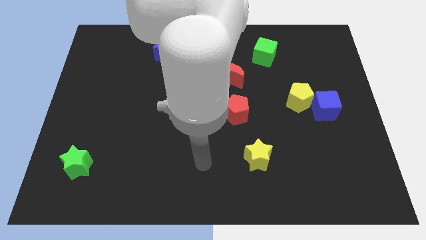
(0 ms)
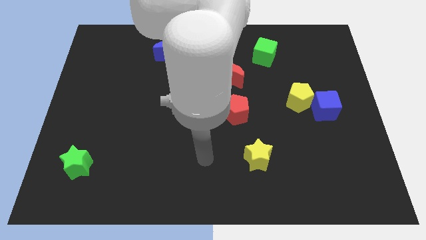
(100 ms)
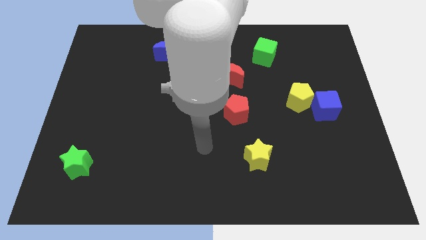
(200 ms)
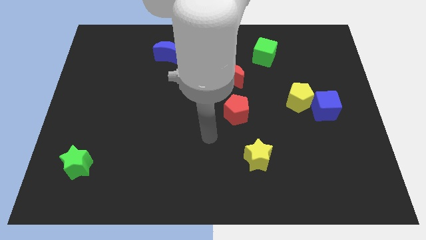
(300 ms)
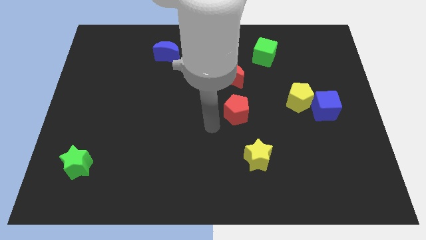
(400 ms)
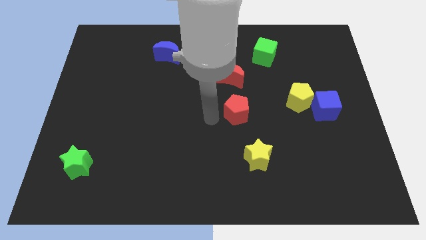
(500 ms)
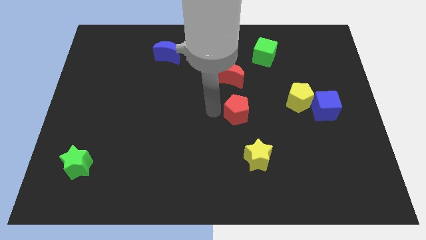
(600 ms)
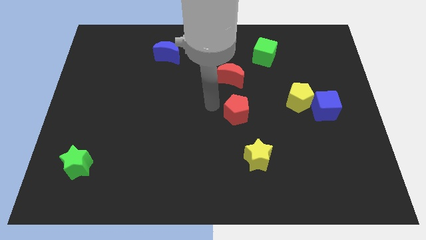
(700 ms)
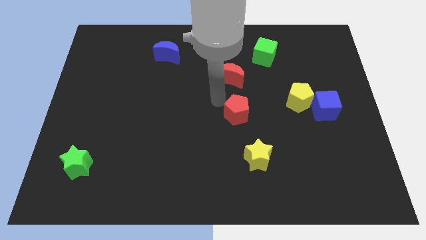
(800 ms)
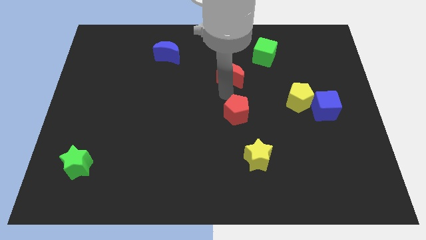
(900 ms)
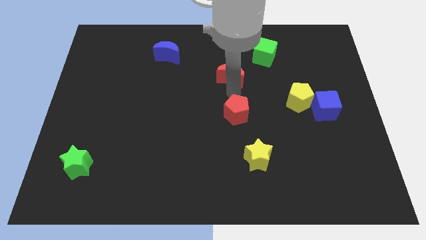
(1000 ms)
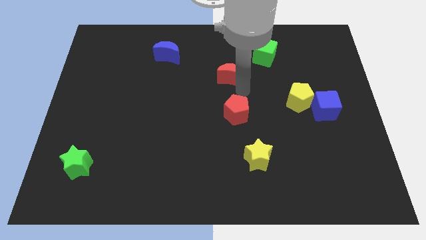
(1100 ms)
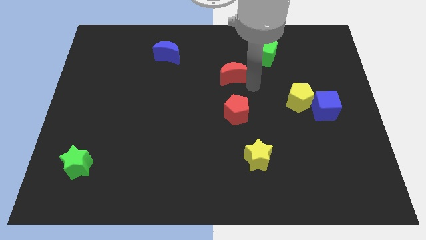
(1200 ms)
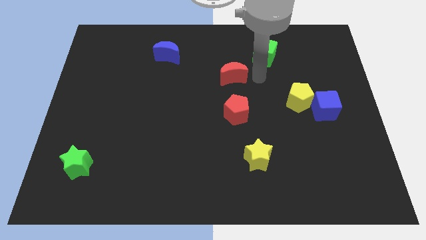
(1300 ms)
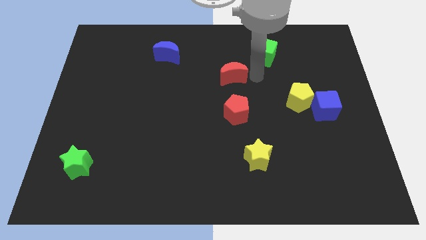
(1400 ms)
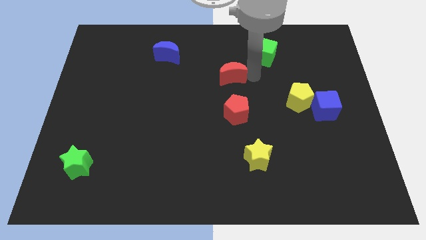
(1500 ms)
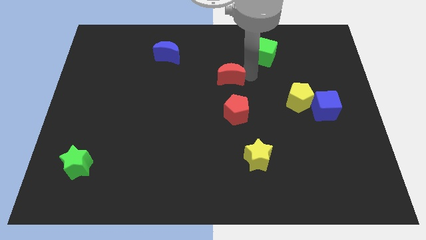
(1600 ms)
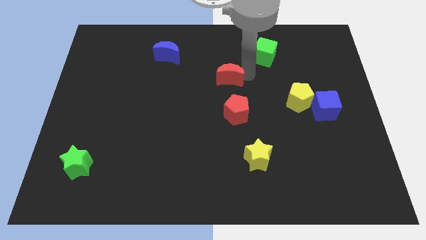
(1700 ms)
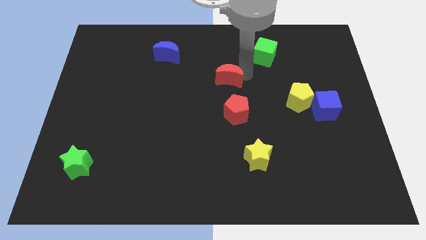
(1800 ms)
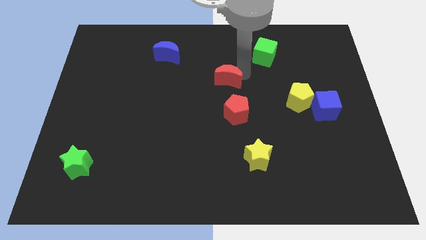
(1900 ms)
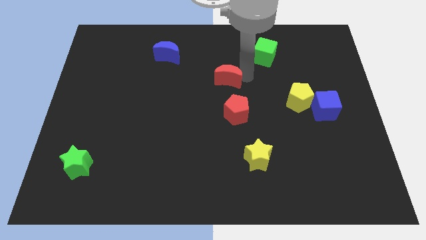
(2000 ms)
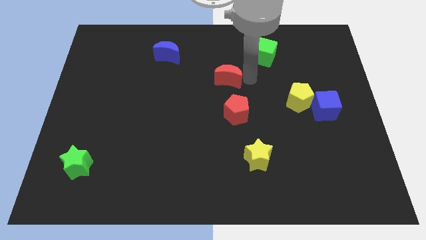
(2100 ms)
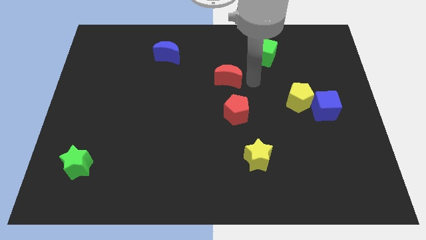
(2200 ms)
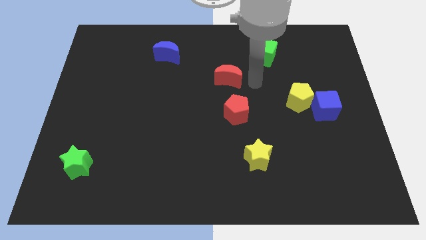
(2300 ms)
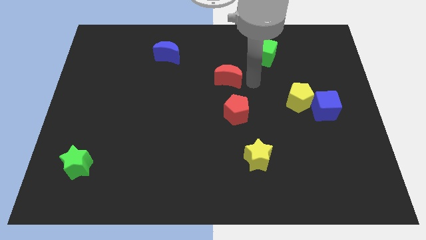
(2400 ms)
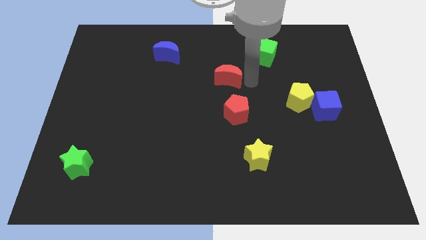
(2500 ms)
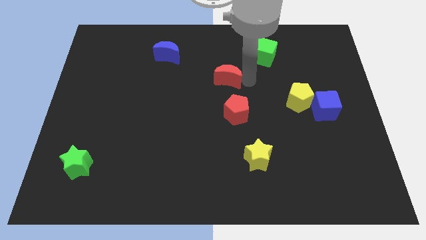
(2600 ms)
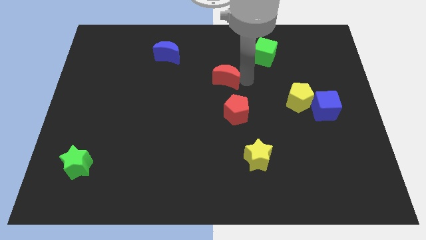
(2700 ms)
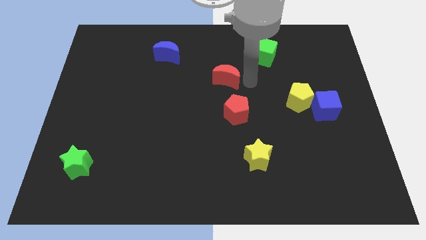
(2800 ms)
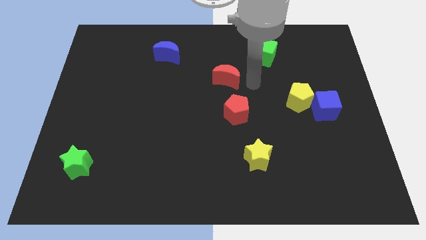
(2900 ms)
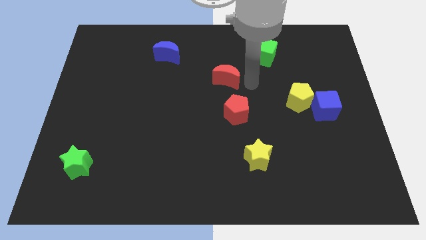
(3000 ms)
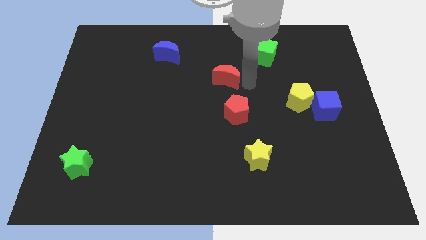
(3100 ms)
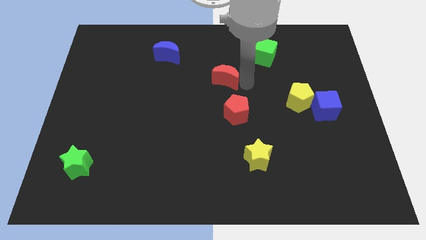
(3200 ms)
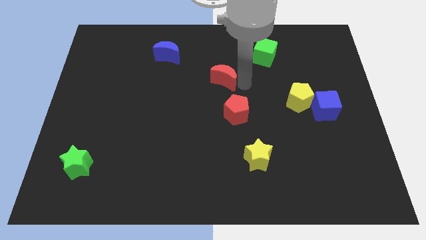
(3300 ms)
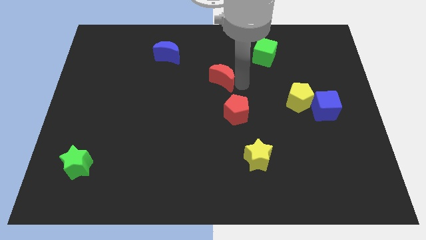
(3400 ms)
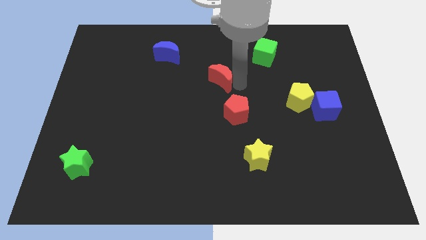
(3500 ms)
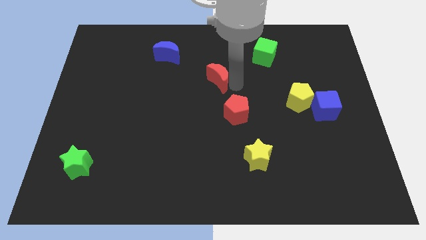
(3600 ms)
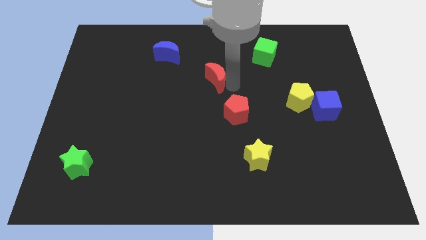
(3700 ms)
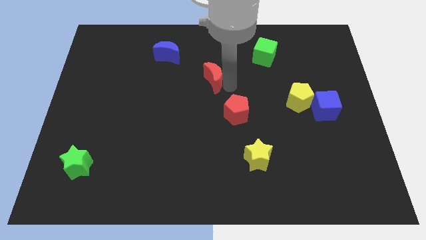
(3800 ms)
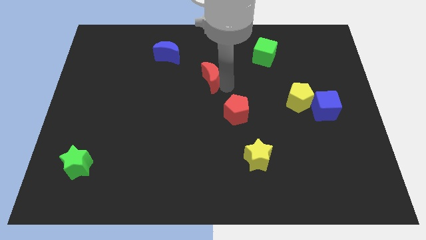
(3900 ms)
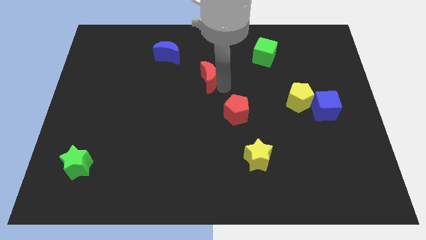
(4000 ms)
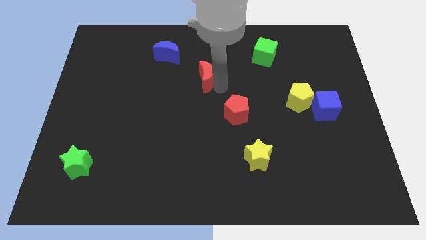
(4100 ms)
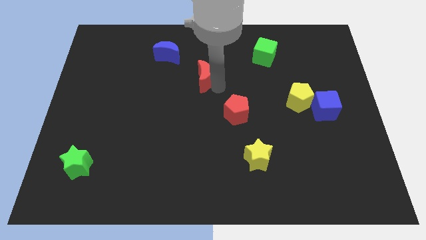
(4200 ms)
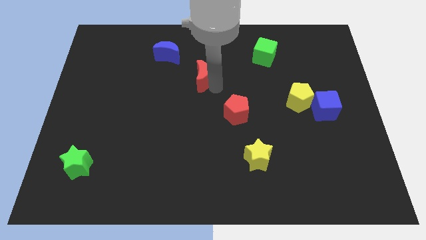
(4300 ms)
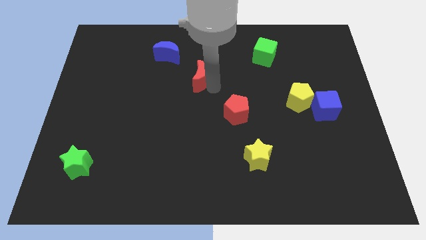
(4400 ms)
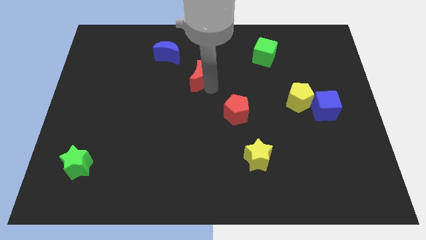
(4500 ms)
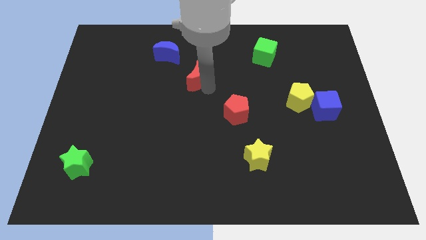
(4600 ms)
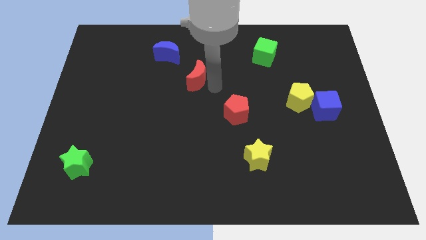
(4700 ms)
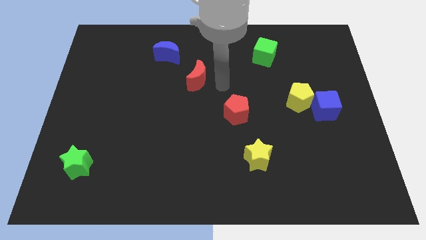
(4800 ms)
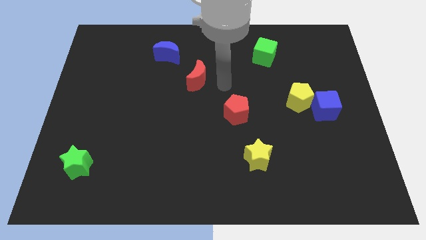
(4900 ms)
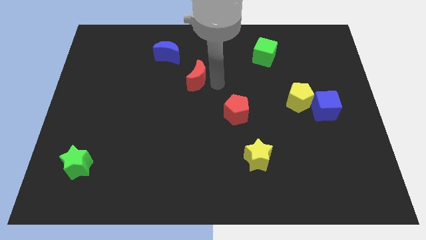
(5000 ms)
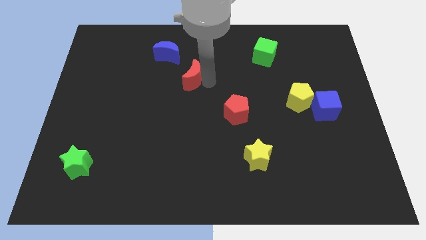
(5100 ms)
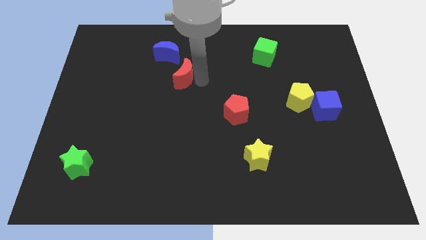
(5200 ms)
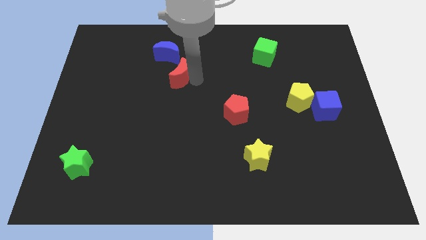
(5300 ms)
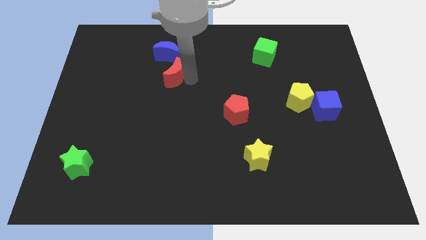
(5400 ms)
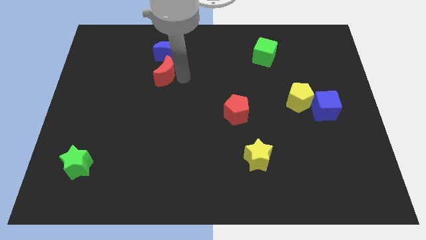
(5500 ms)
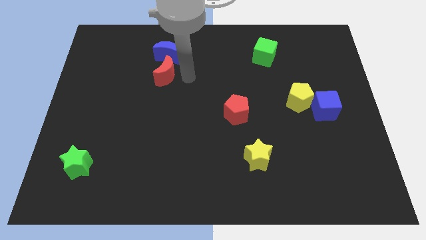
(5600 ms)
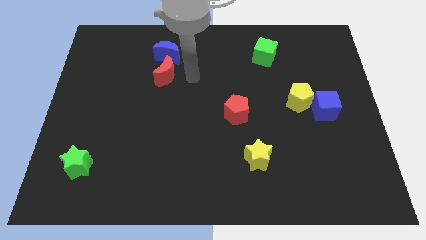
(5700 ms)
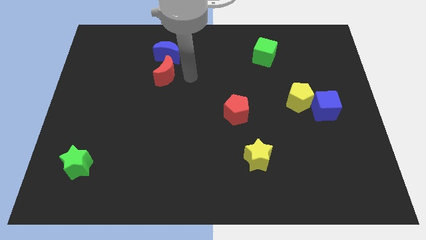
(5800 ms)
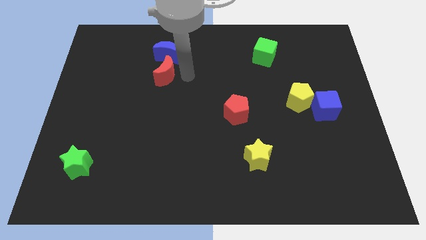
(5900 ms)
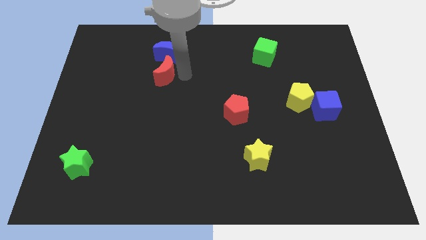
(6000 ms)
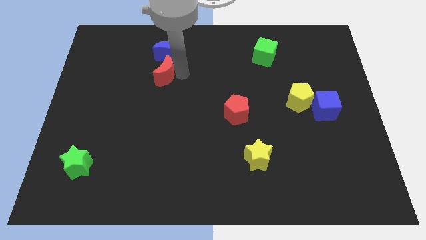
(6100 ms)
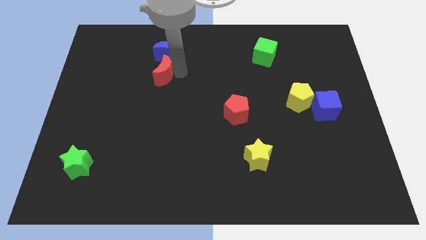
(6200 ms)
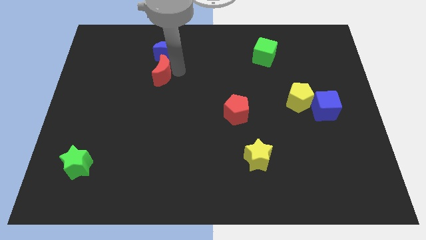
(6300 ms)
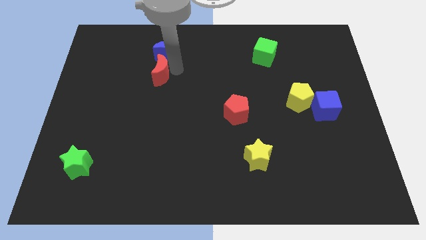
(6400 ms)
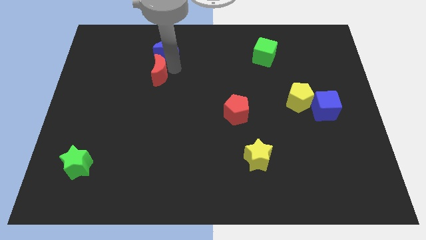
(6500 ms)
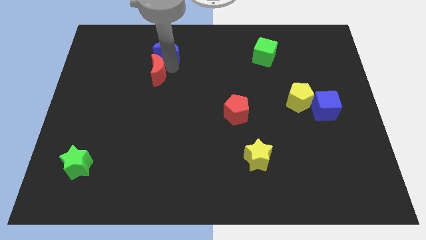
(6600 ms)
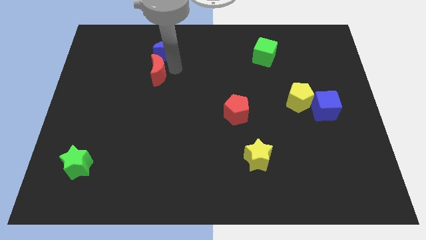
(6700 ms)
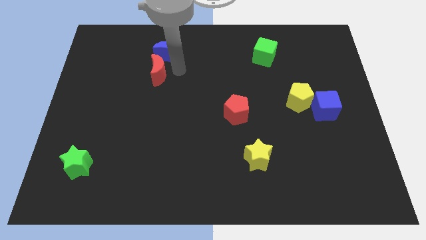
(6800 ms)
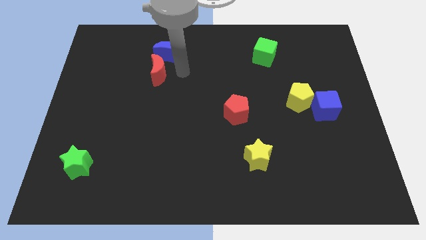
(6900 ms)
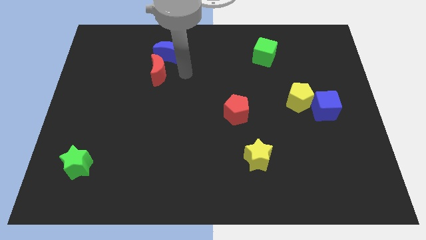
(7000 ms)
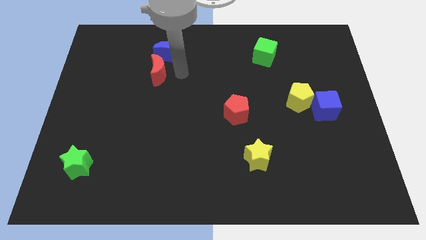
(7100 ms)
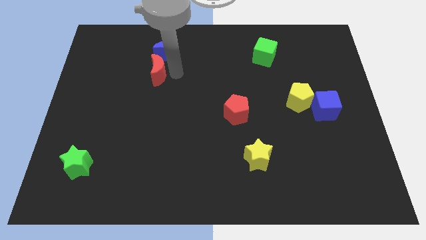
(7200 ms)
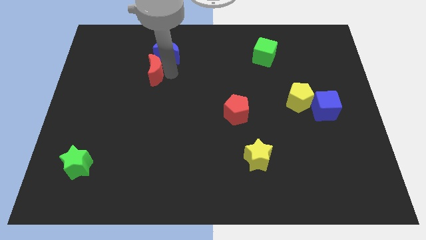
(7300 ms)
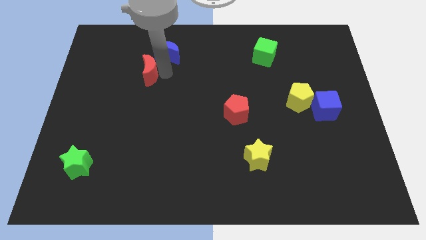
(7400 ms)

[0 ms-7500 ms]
slide the red moon left

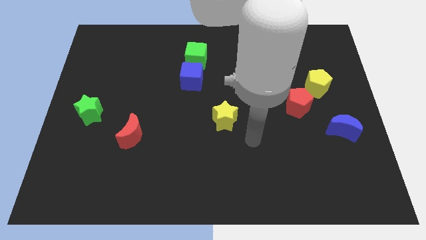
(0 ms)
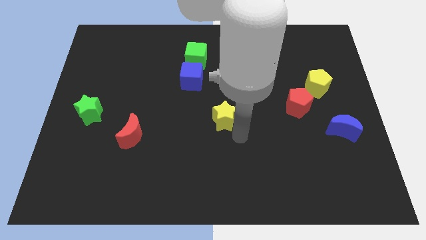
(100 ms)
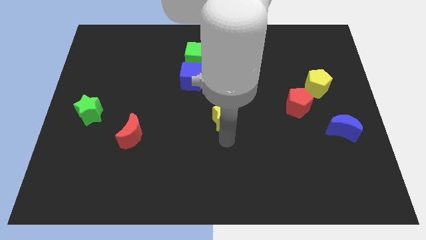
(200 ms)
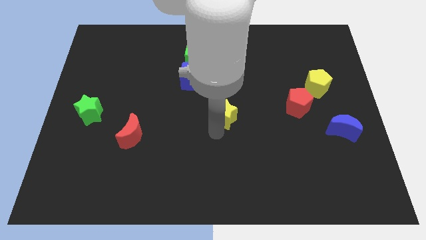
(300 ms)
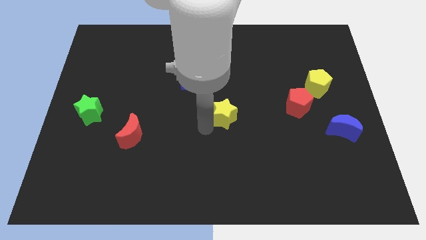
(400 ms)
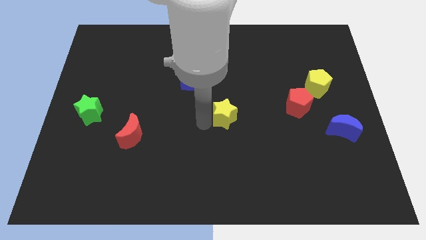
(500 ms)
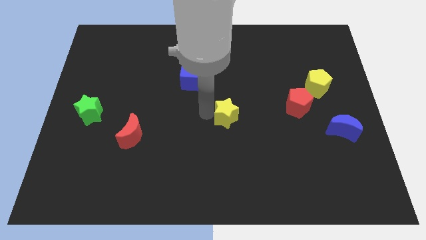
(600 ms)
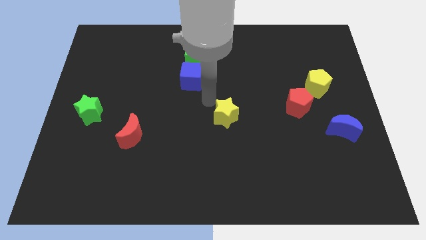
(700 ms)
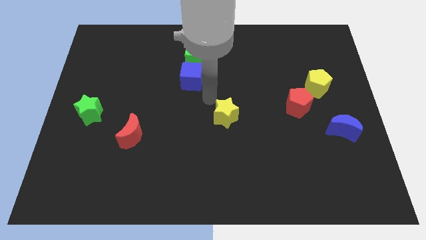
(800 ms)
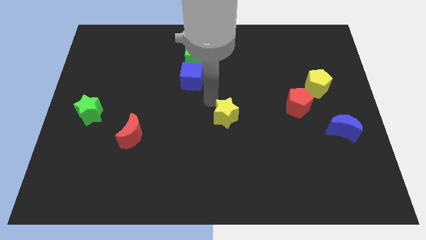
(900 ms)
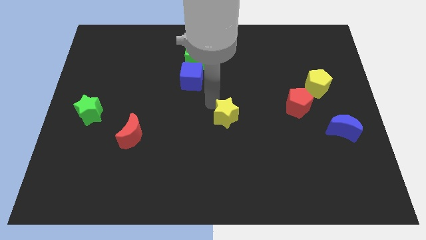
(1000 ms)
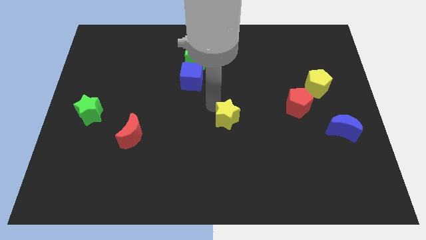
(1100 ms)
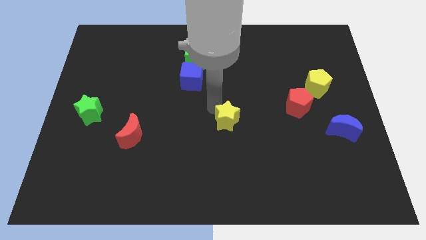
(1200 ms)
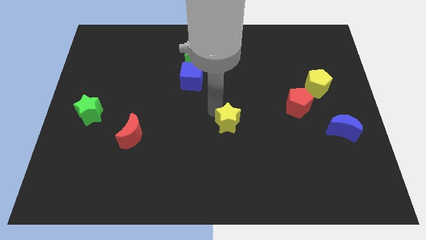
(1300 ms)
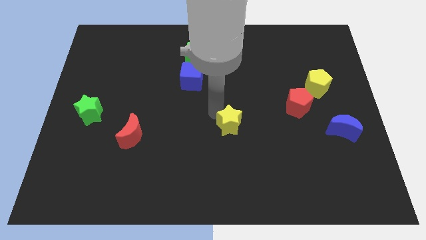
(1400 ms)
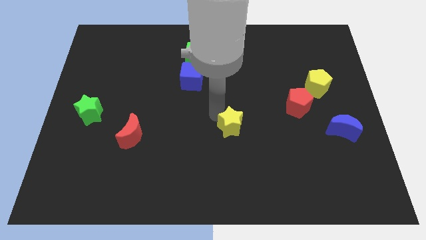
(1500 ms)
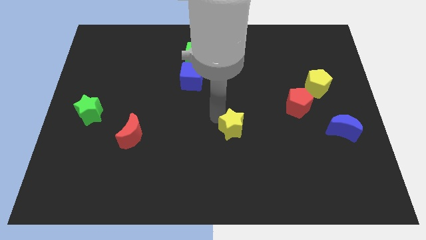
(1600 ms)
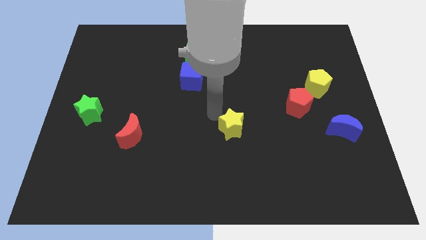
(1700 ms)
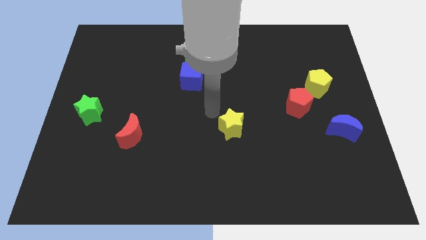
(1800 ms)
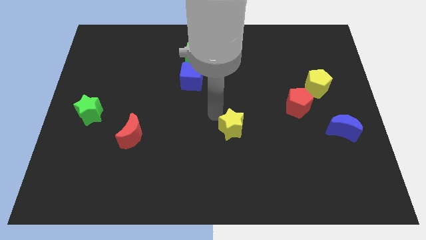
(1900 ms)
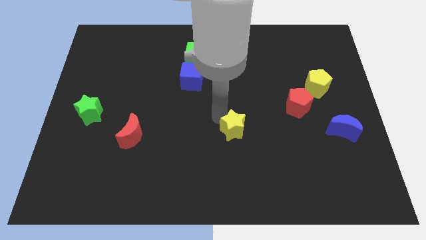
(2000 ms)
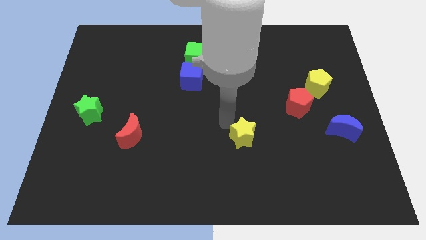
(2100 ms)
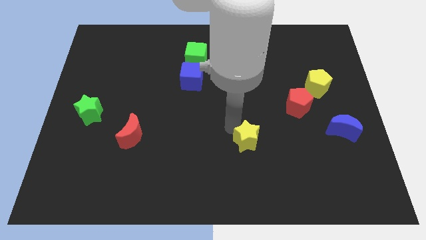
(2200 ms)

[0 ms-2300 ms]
move the yellow star a little bit downwards and to the right diagonally
